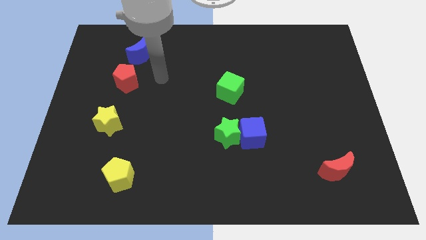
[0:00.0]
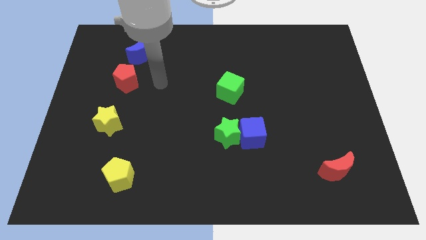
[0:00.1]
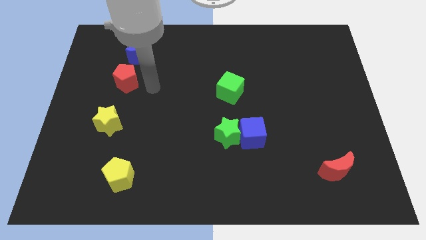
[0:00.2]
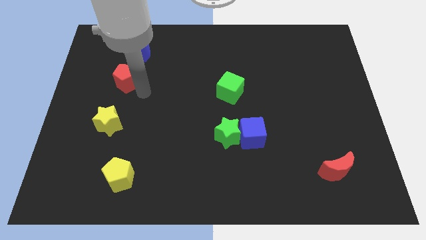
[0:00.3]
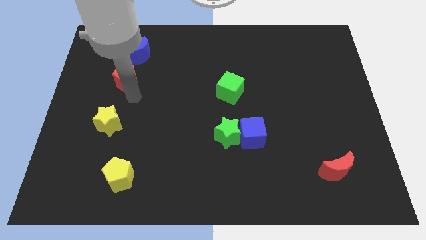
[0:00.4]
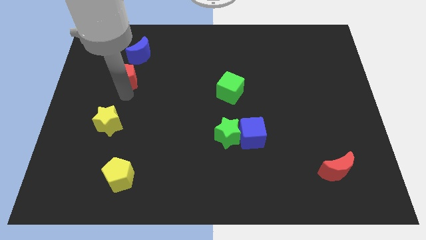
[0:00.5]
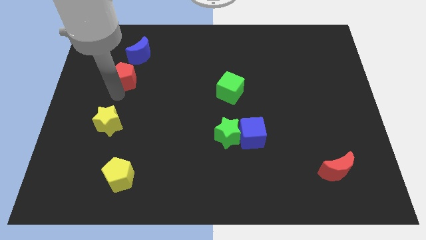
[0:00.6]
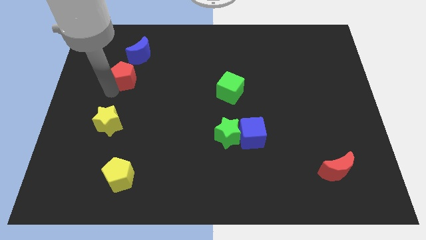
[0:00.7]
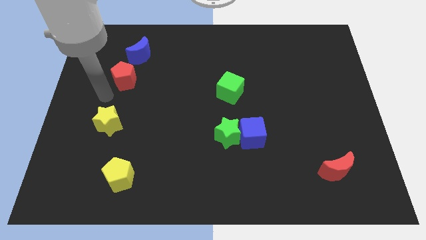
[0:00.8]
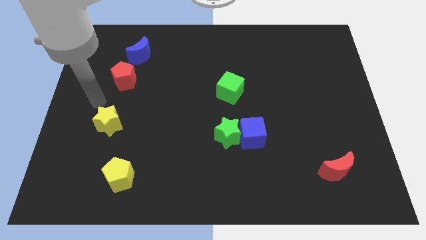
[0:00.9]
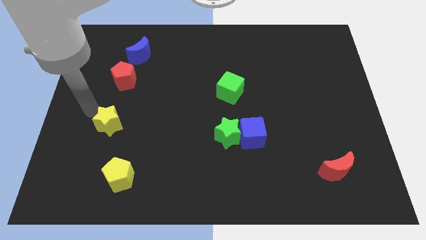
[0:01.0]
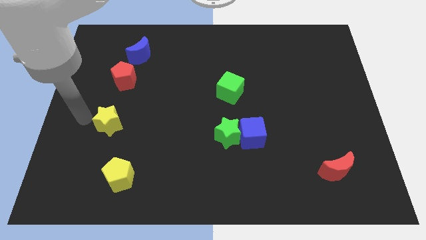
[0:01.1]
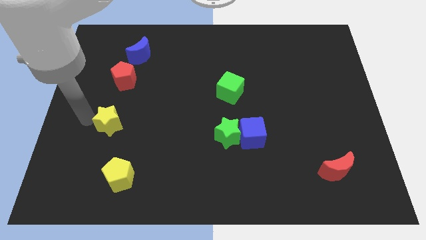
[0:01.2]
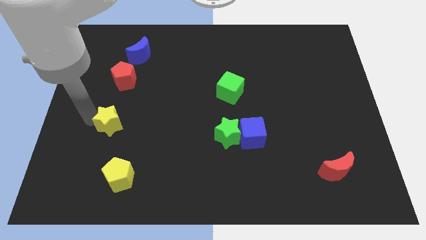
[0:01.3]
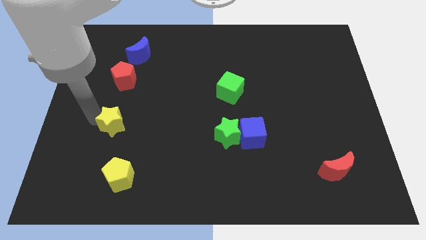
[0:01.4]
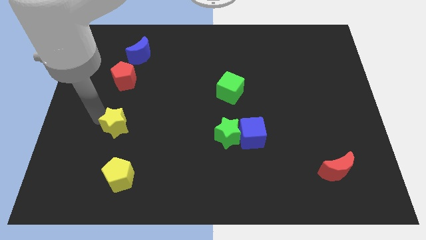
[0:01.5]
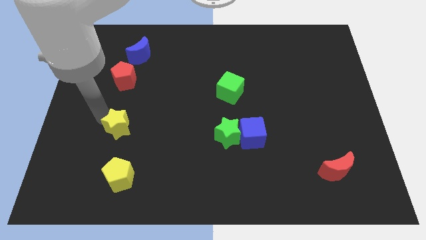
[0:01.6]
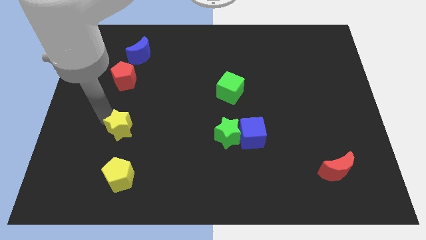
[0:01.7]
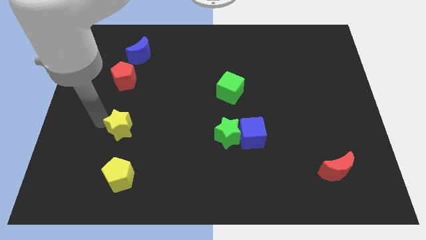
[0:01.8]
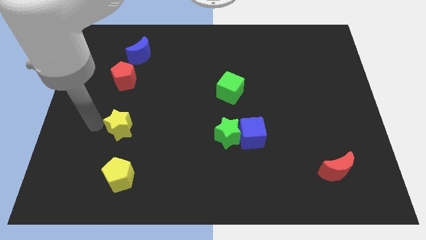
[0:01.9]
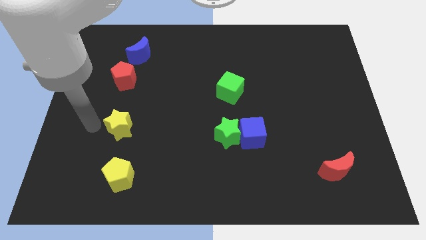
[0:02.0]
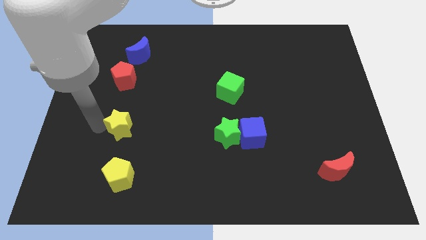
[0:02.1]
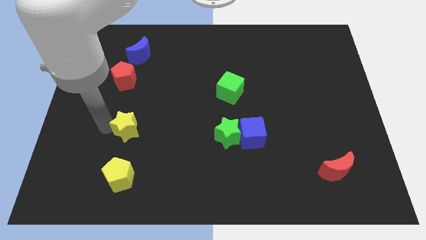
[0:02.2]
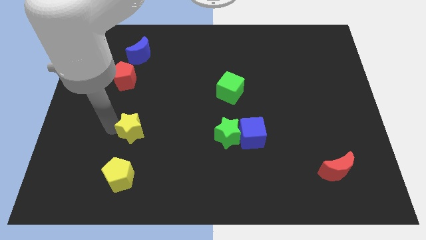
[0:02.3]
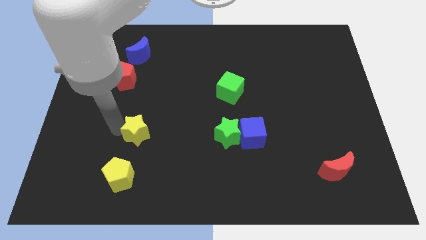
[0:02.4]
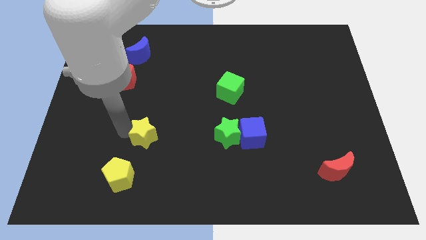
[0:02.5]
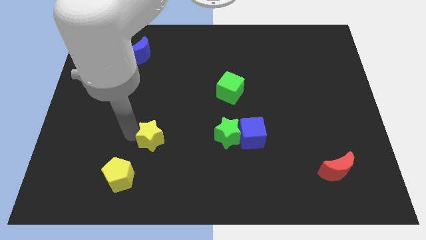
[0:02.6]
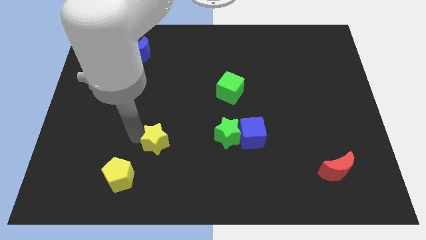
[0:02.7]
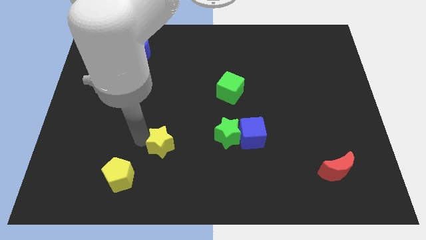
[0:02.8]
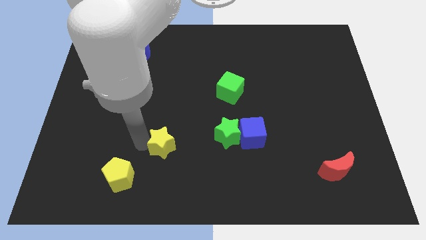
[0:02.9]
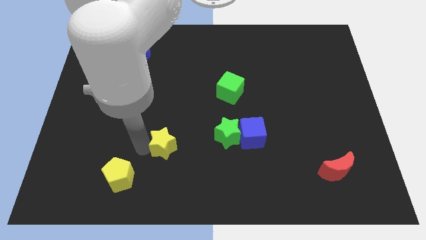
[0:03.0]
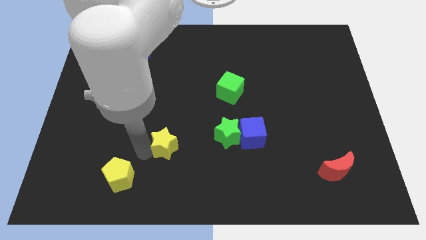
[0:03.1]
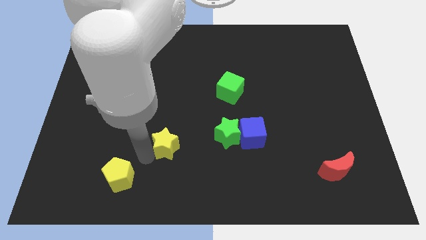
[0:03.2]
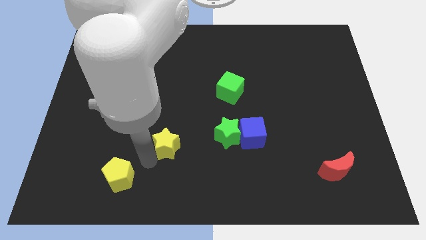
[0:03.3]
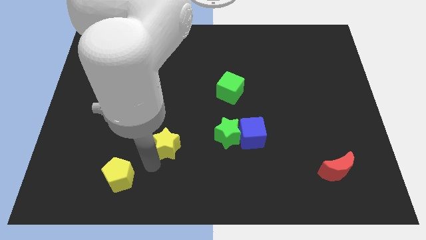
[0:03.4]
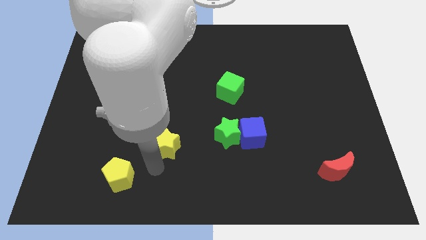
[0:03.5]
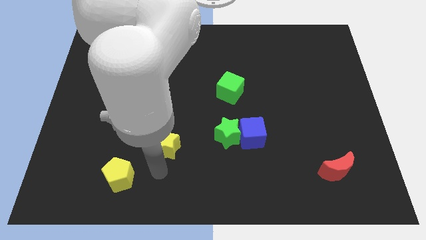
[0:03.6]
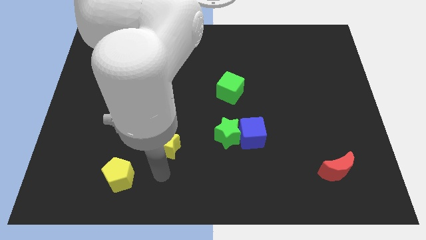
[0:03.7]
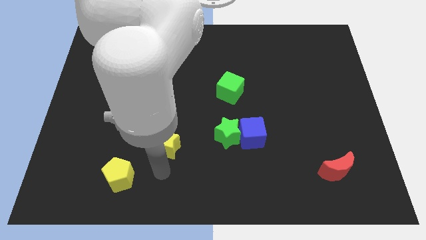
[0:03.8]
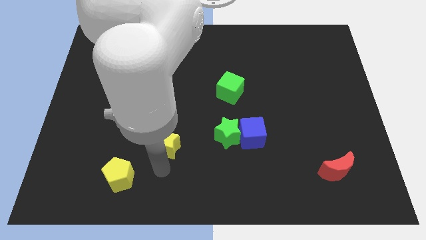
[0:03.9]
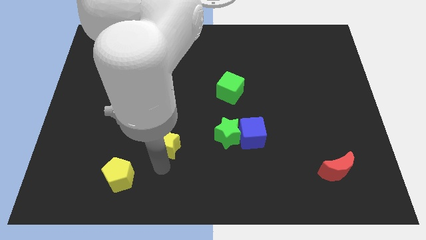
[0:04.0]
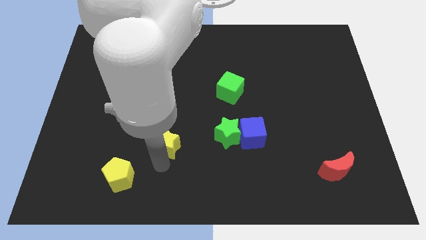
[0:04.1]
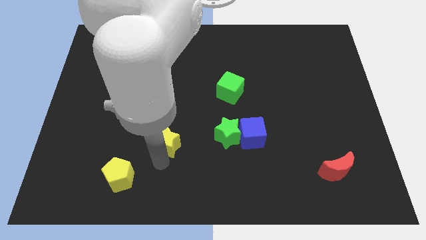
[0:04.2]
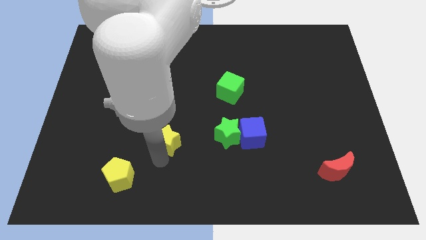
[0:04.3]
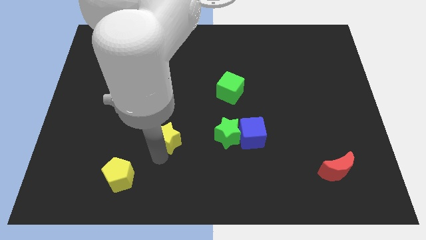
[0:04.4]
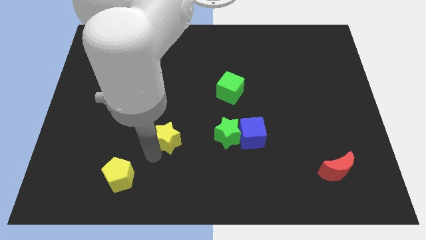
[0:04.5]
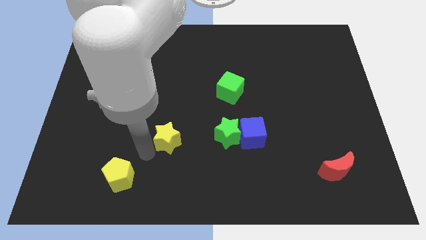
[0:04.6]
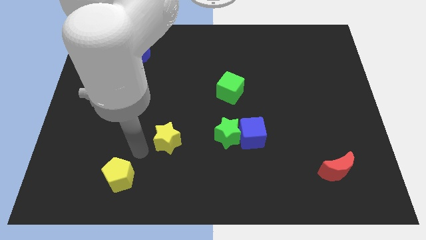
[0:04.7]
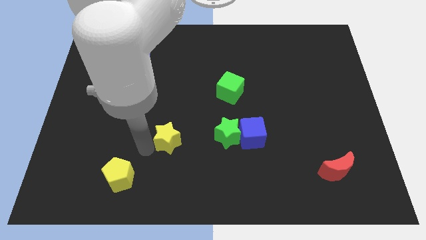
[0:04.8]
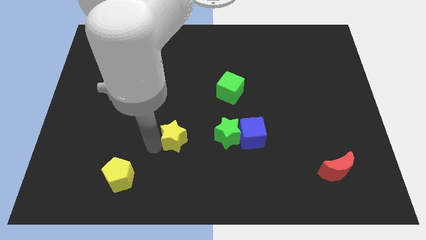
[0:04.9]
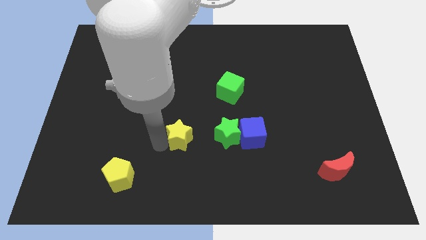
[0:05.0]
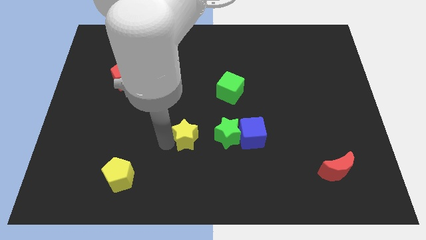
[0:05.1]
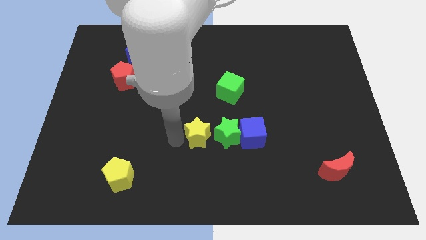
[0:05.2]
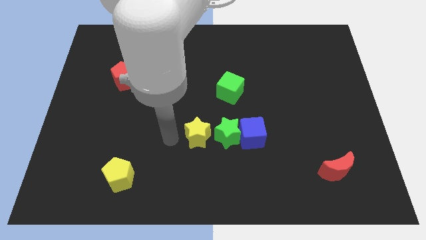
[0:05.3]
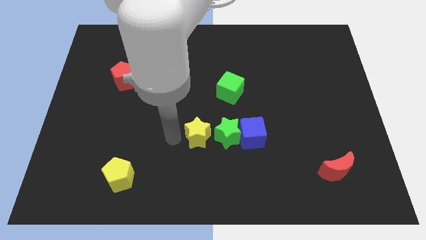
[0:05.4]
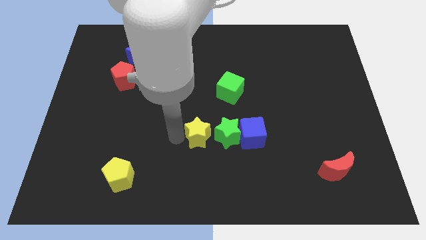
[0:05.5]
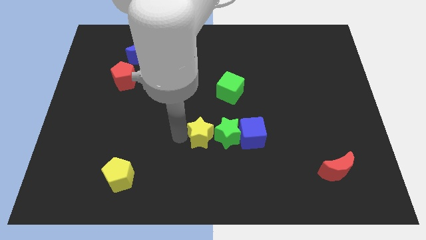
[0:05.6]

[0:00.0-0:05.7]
put the yellow star towards the green star

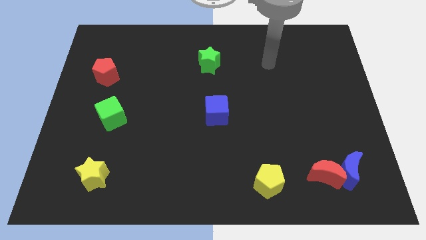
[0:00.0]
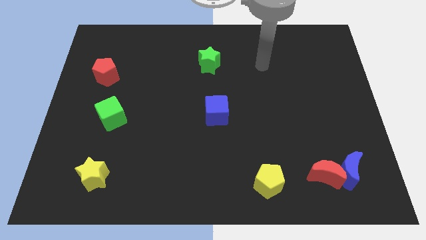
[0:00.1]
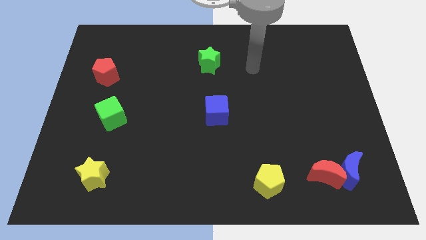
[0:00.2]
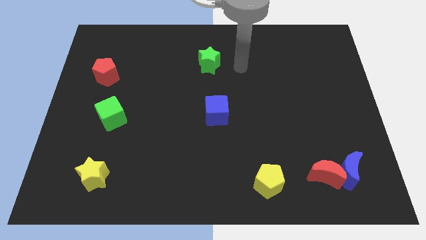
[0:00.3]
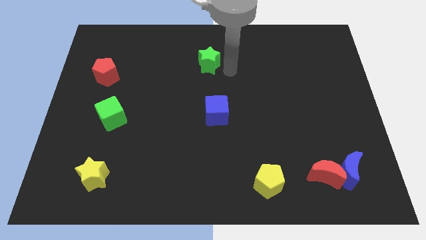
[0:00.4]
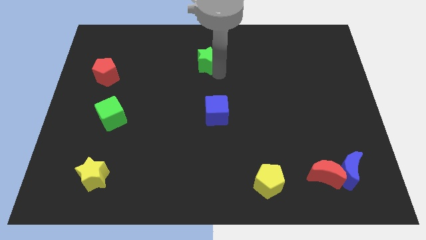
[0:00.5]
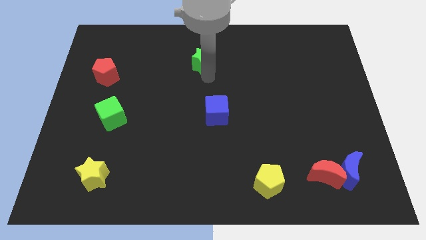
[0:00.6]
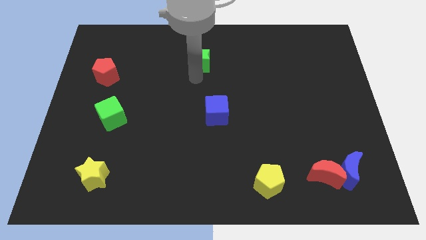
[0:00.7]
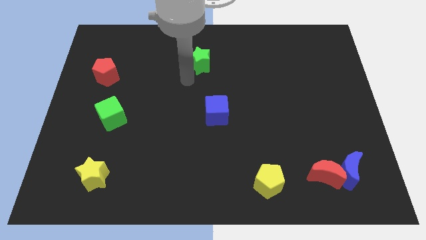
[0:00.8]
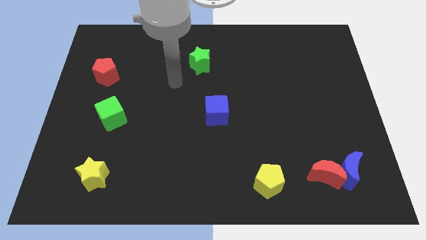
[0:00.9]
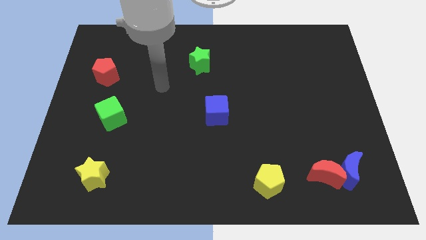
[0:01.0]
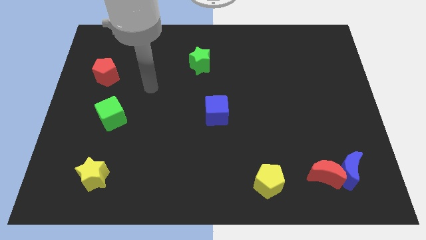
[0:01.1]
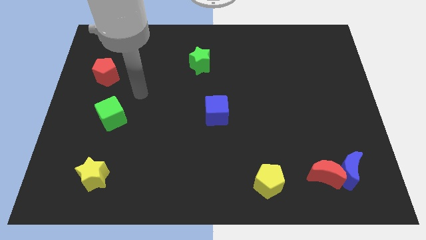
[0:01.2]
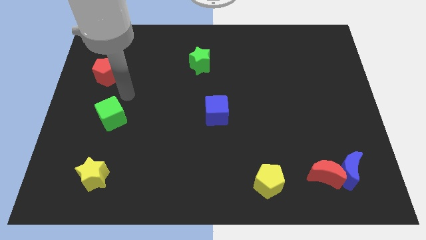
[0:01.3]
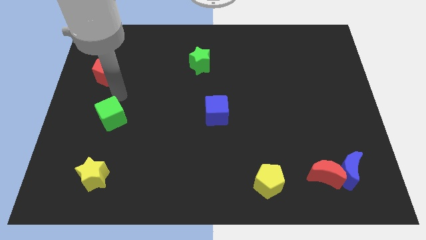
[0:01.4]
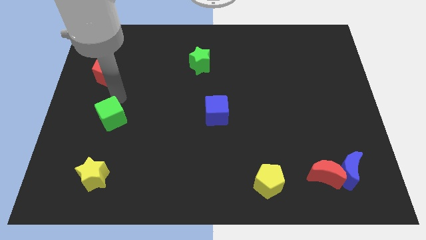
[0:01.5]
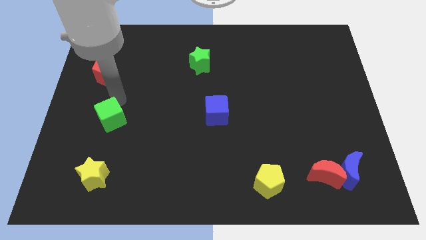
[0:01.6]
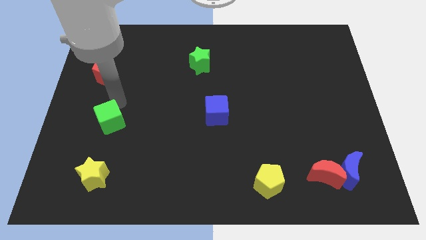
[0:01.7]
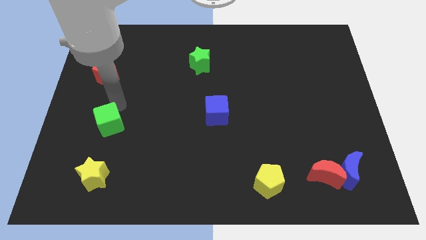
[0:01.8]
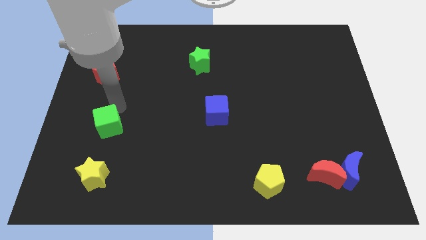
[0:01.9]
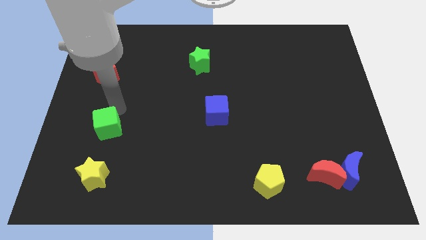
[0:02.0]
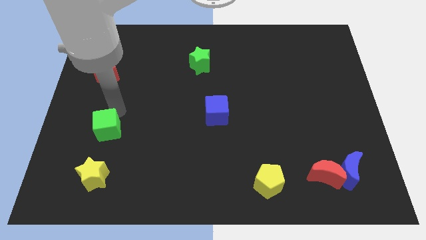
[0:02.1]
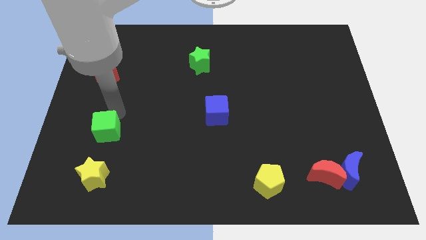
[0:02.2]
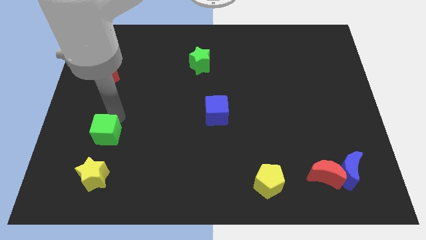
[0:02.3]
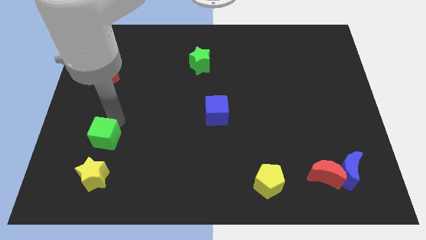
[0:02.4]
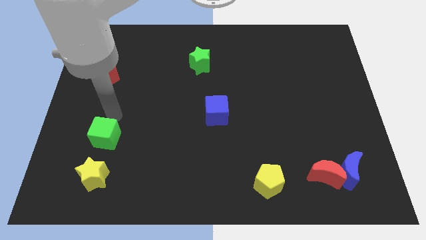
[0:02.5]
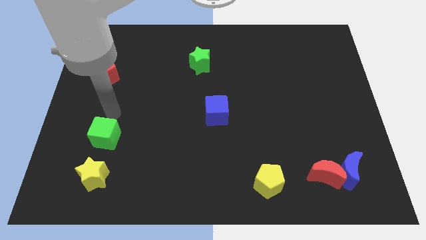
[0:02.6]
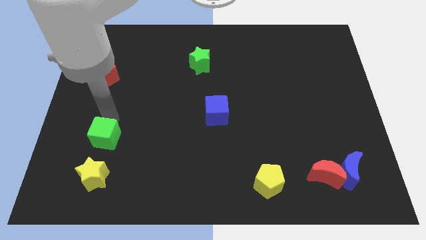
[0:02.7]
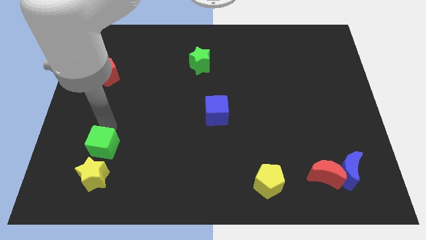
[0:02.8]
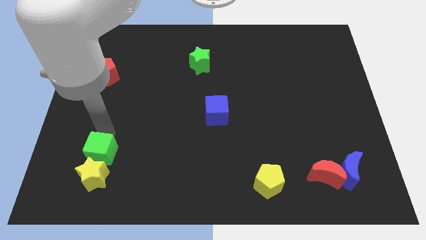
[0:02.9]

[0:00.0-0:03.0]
push the green cube close to the yellow star
